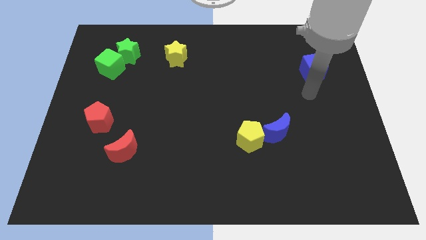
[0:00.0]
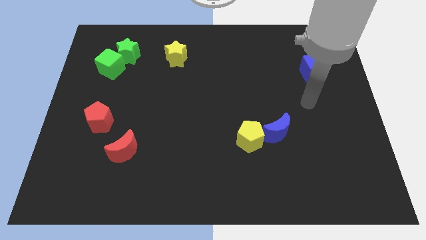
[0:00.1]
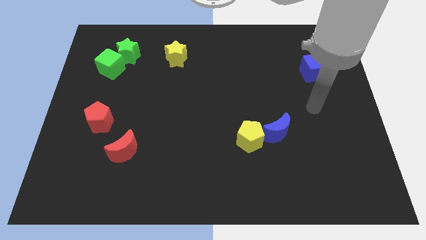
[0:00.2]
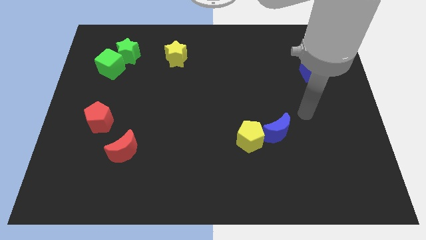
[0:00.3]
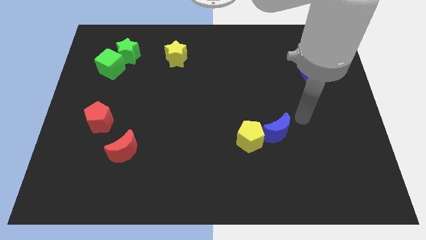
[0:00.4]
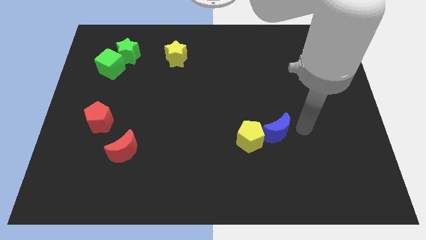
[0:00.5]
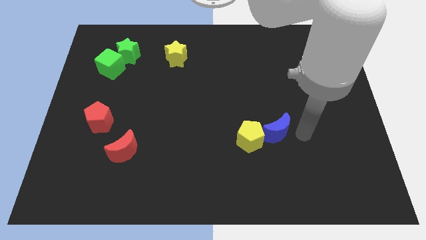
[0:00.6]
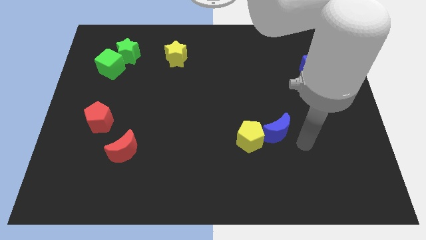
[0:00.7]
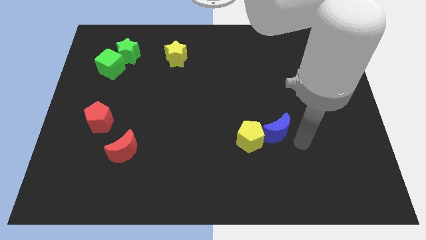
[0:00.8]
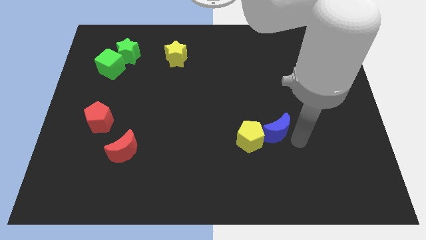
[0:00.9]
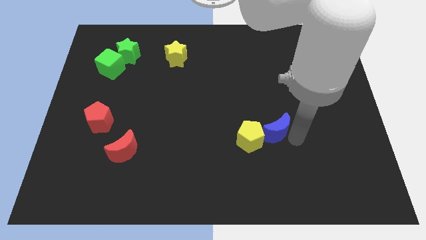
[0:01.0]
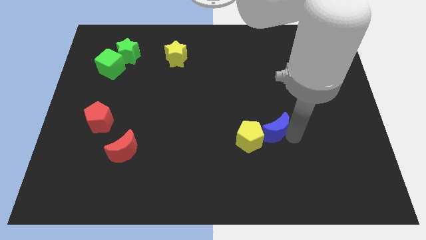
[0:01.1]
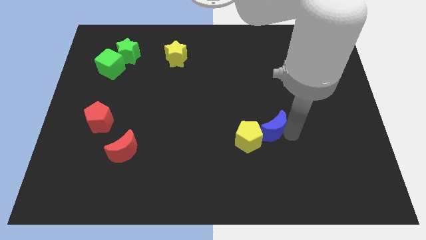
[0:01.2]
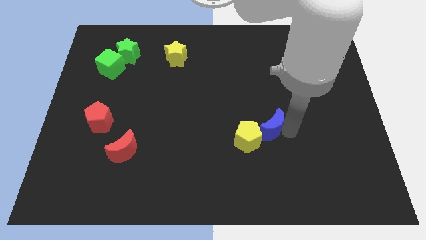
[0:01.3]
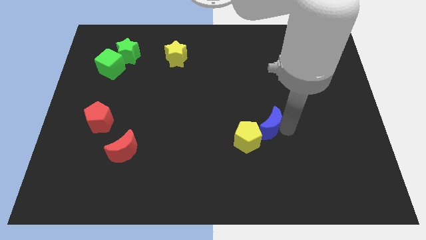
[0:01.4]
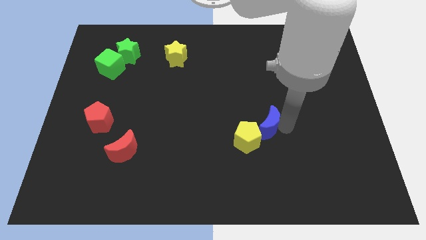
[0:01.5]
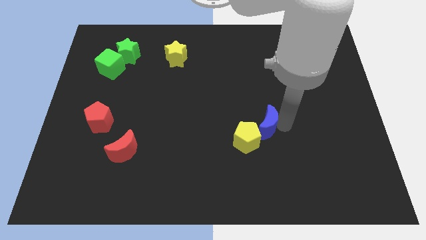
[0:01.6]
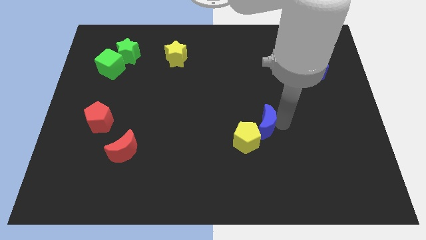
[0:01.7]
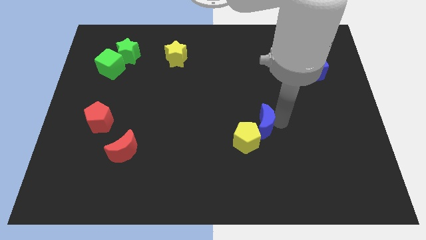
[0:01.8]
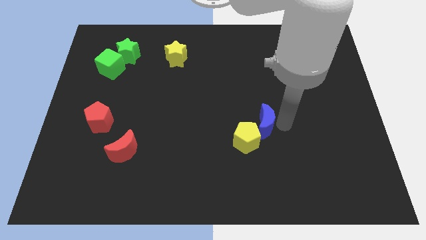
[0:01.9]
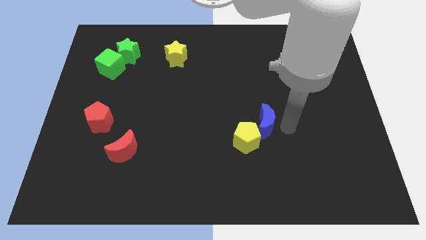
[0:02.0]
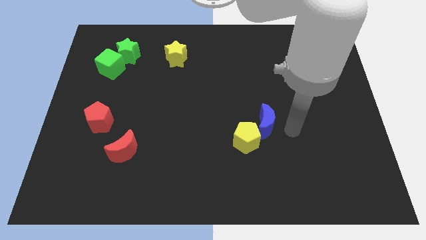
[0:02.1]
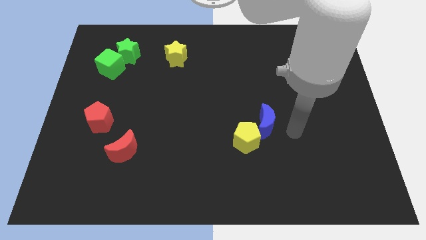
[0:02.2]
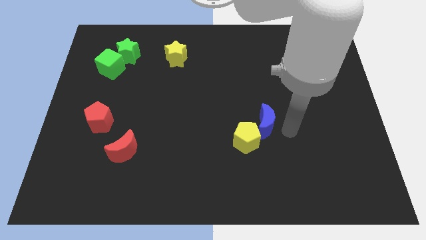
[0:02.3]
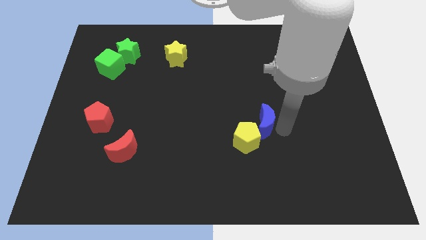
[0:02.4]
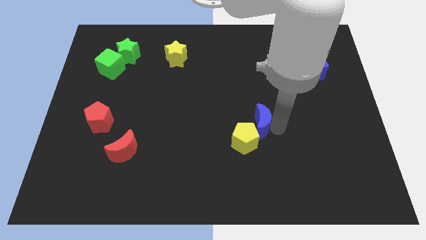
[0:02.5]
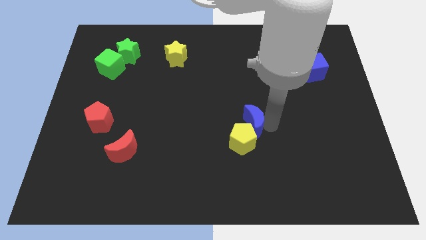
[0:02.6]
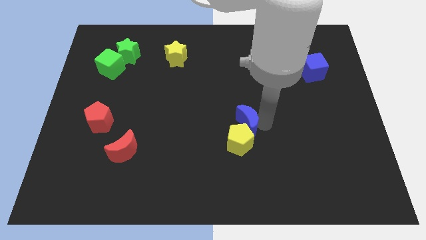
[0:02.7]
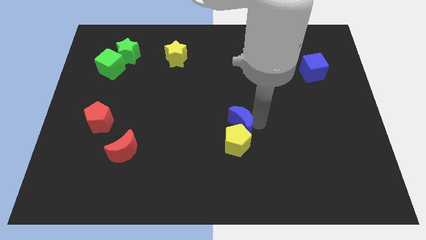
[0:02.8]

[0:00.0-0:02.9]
push the blue moon a bit left

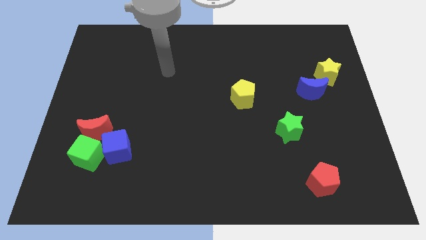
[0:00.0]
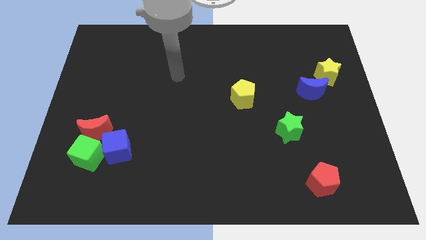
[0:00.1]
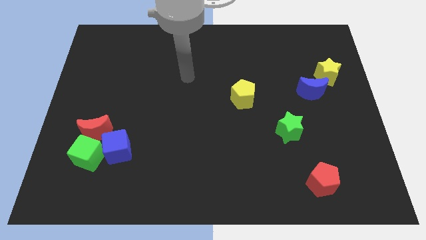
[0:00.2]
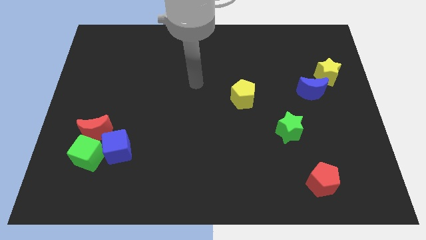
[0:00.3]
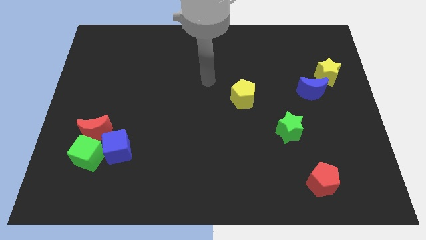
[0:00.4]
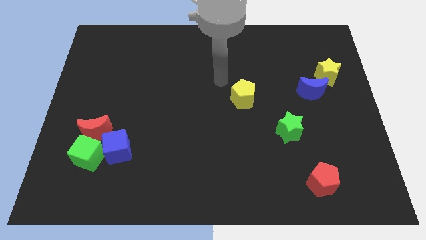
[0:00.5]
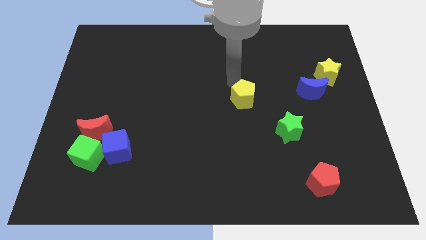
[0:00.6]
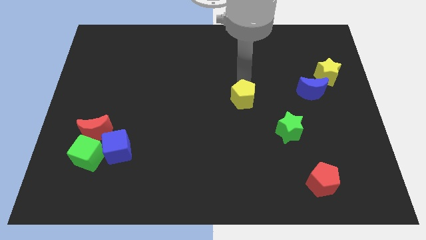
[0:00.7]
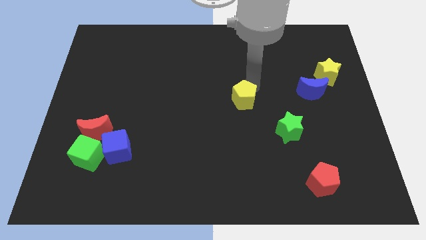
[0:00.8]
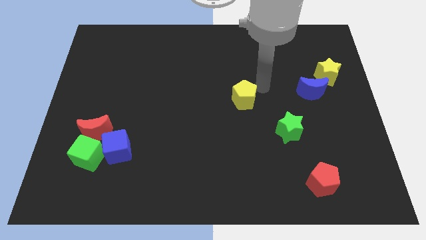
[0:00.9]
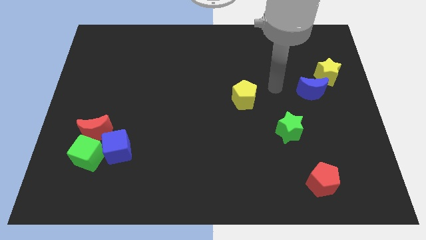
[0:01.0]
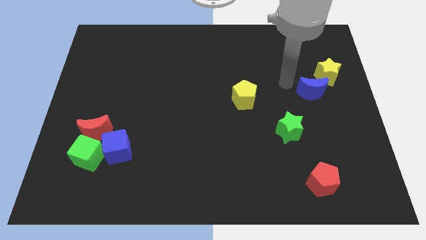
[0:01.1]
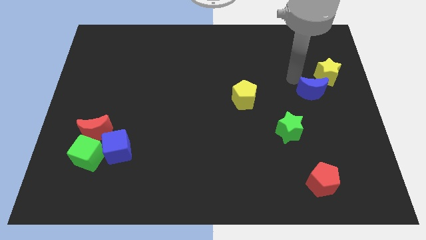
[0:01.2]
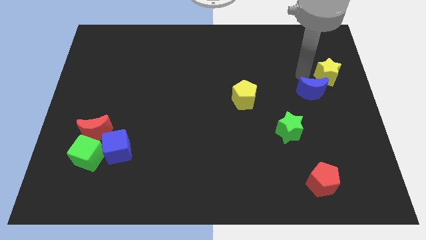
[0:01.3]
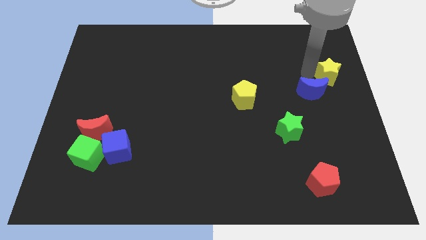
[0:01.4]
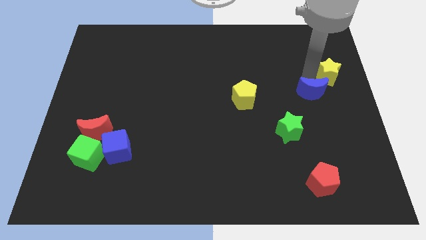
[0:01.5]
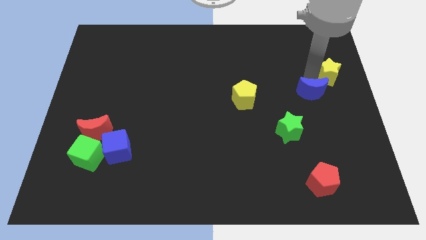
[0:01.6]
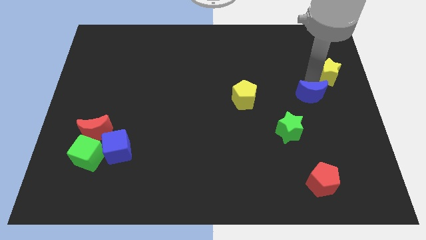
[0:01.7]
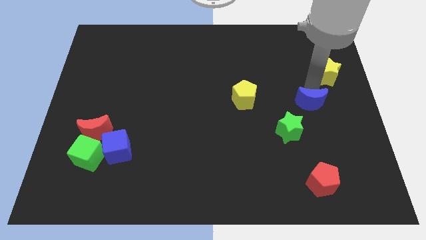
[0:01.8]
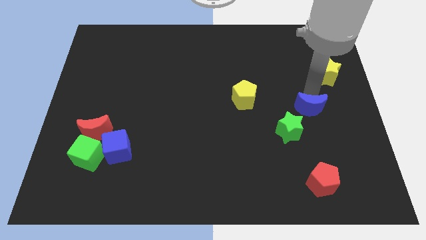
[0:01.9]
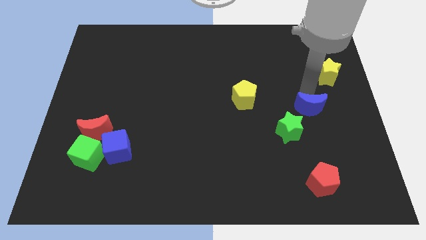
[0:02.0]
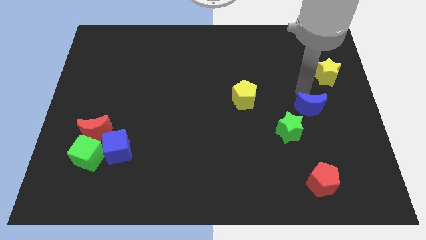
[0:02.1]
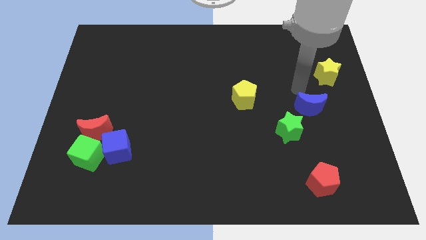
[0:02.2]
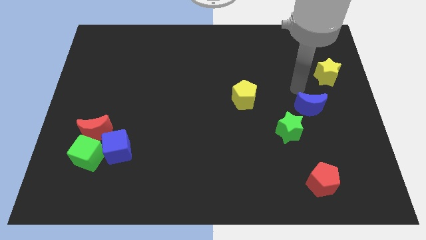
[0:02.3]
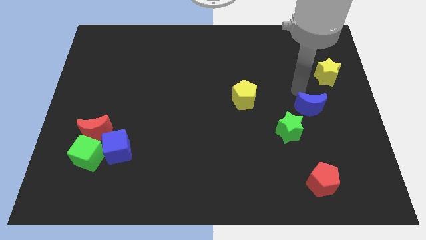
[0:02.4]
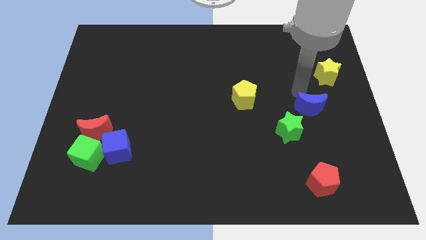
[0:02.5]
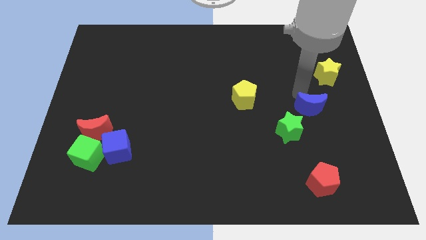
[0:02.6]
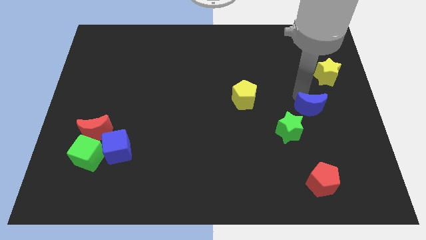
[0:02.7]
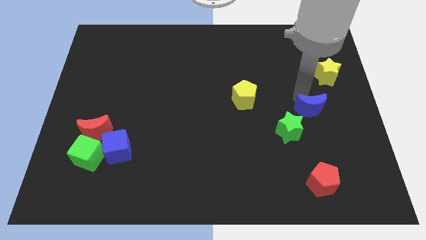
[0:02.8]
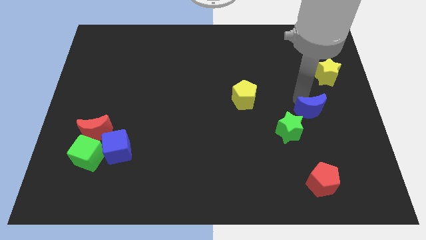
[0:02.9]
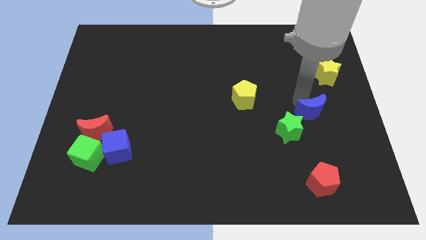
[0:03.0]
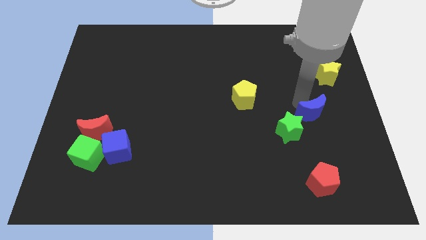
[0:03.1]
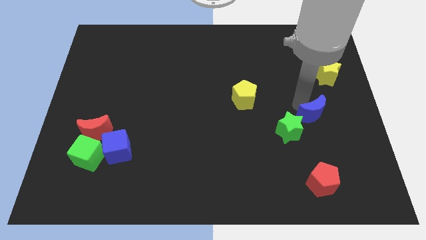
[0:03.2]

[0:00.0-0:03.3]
move the blue moon downwards somewhat

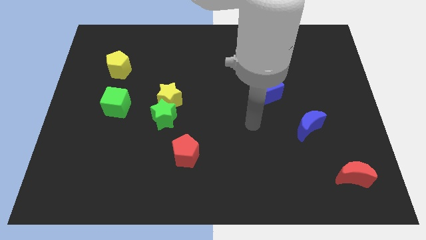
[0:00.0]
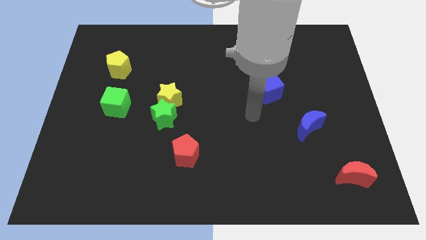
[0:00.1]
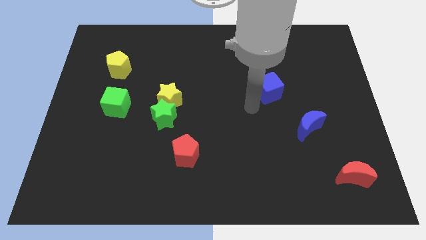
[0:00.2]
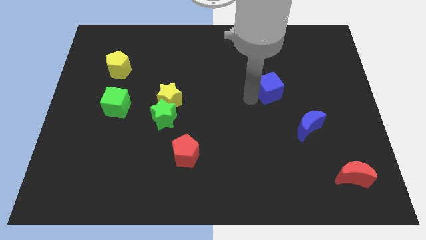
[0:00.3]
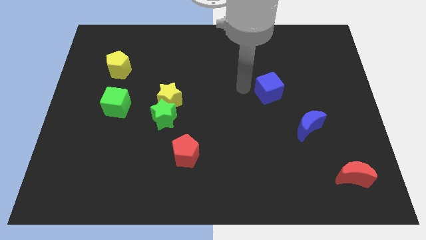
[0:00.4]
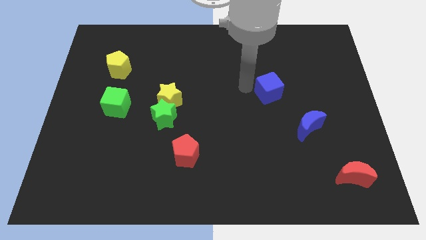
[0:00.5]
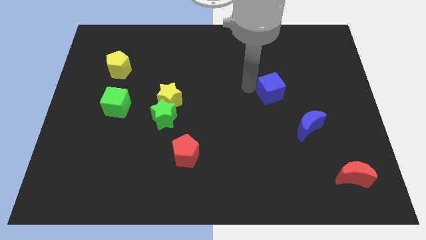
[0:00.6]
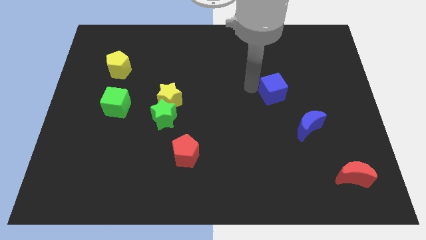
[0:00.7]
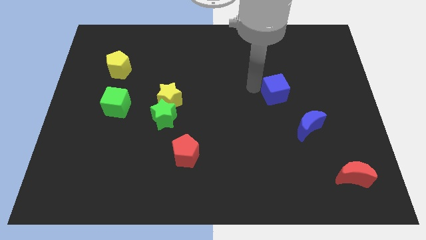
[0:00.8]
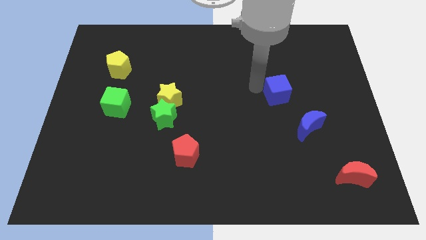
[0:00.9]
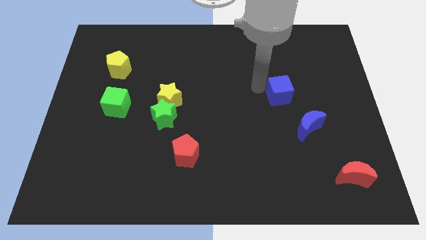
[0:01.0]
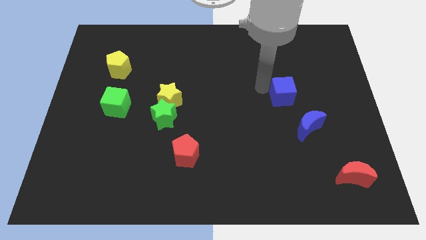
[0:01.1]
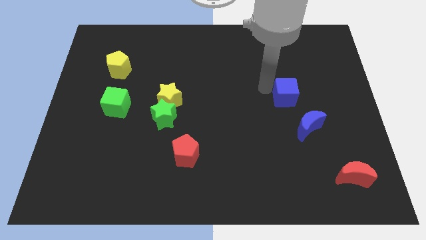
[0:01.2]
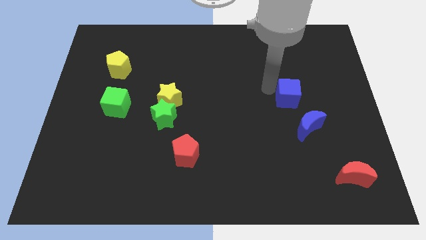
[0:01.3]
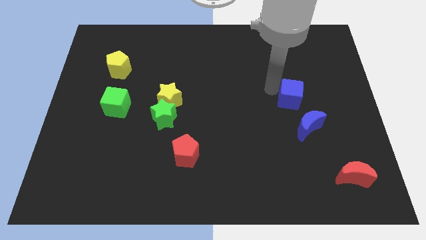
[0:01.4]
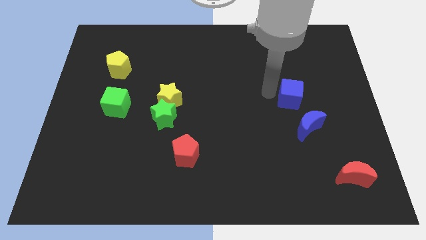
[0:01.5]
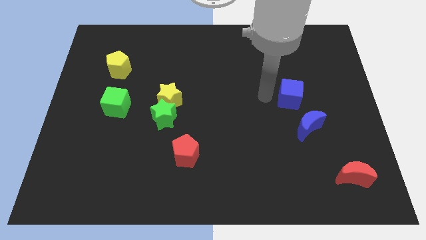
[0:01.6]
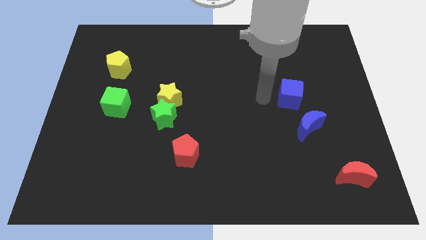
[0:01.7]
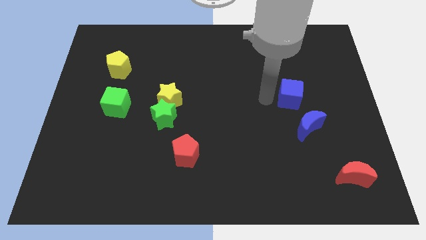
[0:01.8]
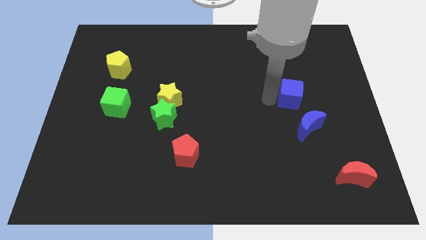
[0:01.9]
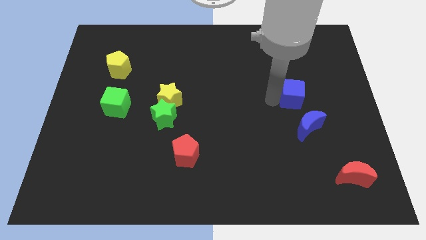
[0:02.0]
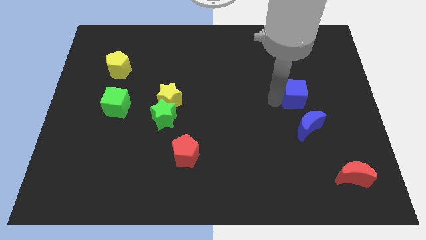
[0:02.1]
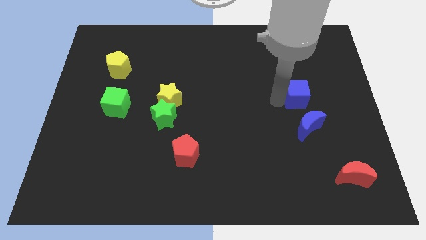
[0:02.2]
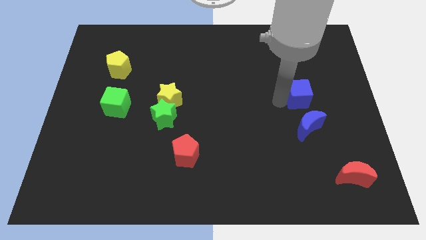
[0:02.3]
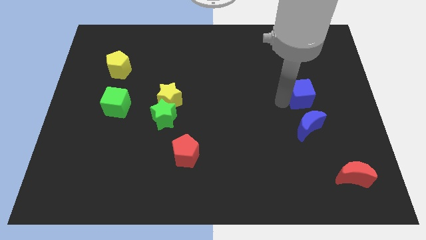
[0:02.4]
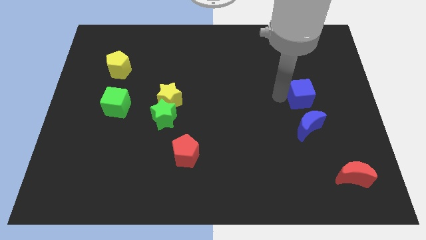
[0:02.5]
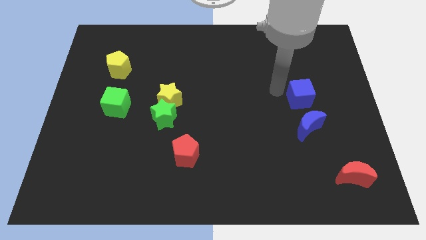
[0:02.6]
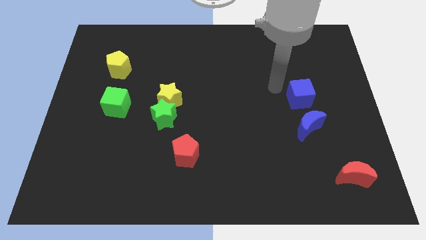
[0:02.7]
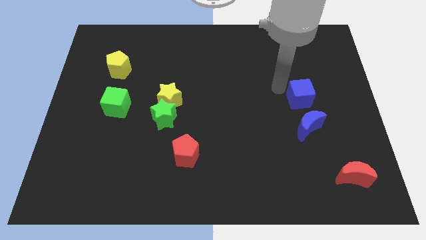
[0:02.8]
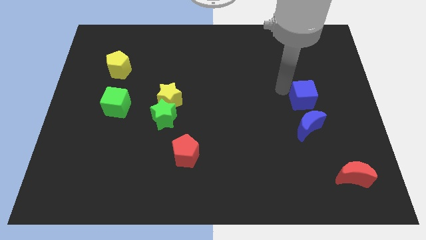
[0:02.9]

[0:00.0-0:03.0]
push the blue cube down and then right a little bit
